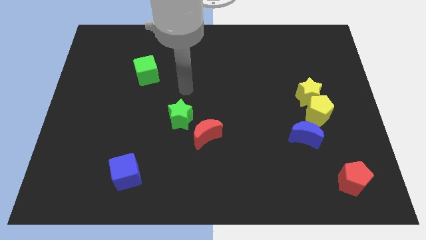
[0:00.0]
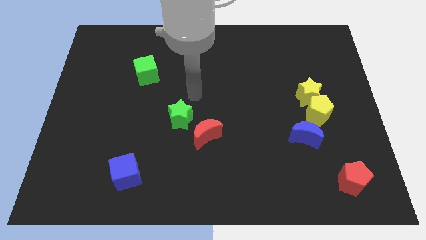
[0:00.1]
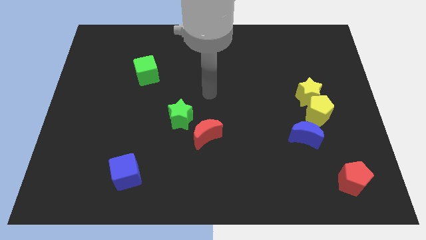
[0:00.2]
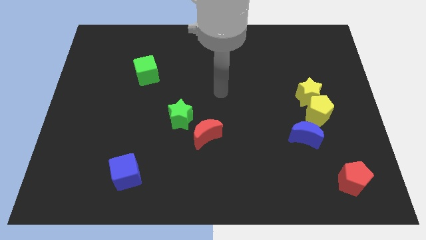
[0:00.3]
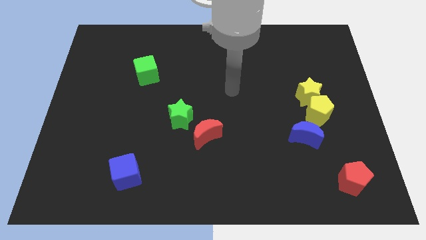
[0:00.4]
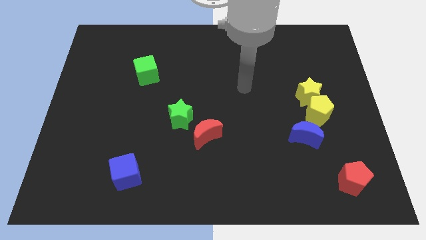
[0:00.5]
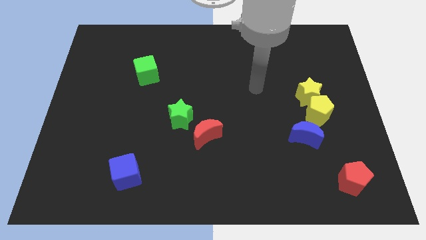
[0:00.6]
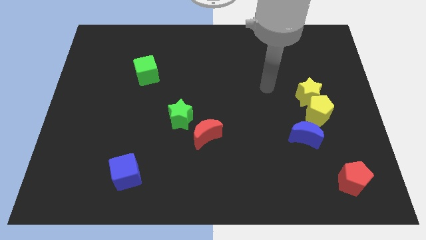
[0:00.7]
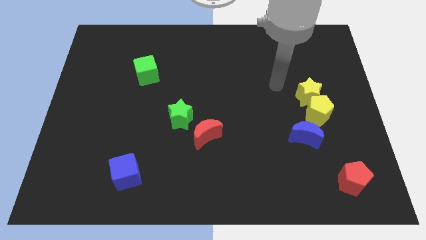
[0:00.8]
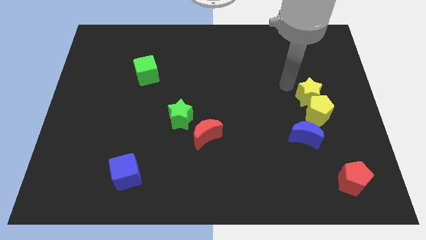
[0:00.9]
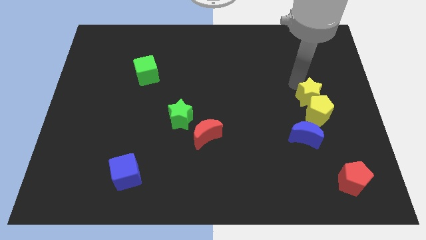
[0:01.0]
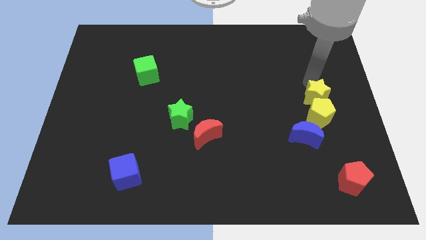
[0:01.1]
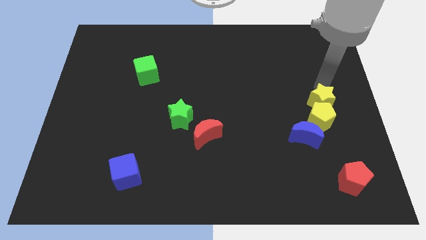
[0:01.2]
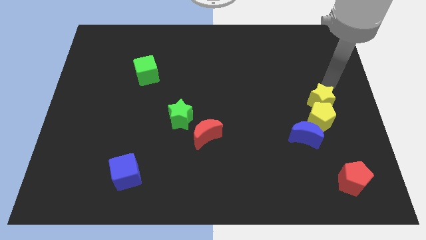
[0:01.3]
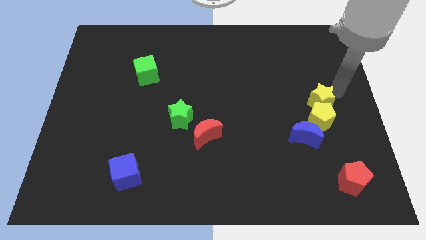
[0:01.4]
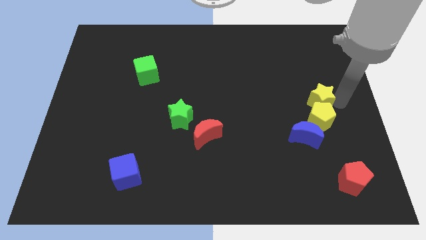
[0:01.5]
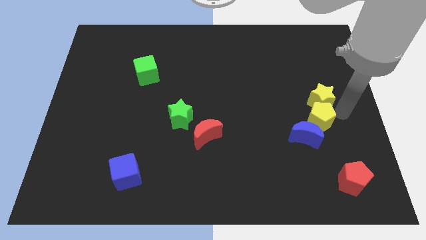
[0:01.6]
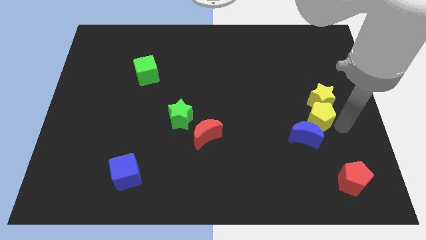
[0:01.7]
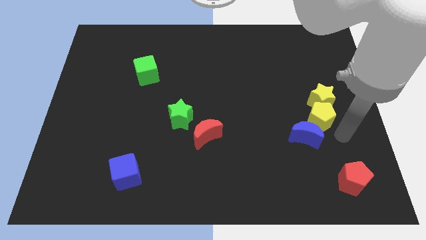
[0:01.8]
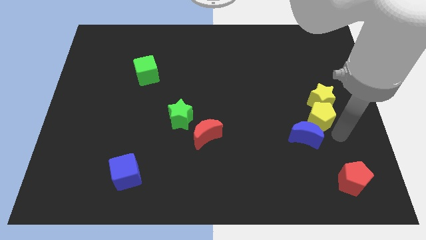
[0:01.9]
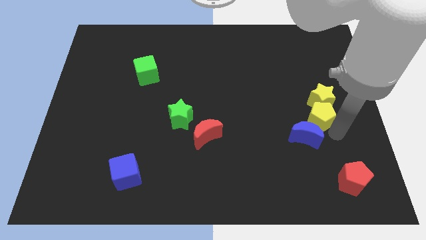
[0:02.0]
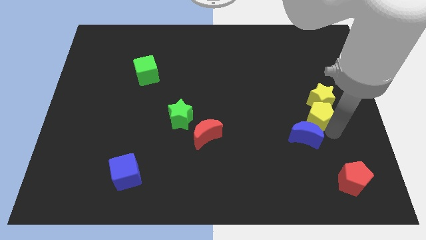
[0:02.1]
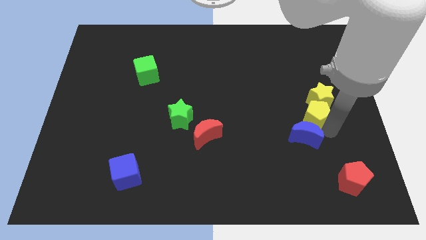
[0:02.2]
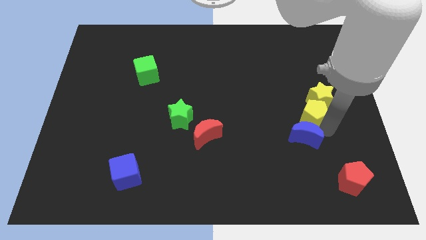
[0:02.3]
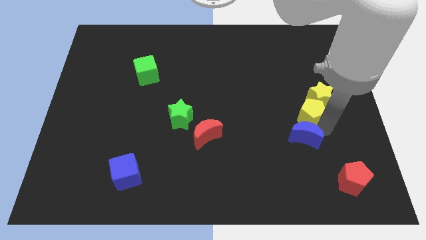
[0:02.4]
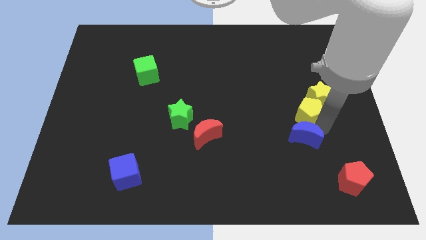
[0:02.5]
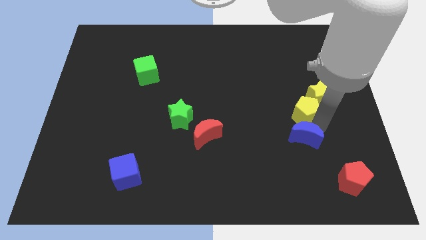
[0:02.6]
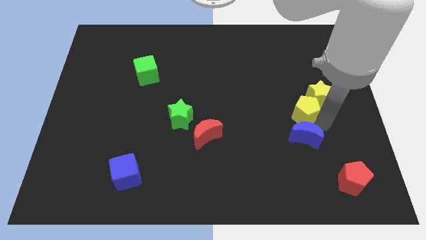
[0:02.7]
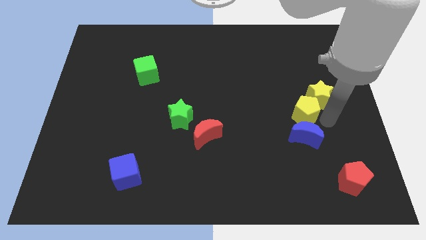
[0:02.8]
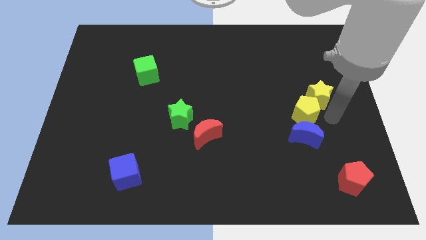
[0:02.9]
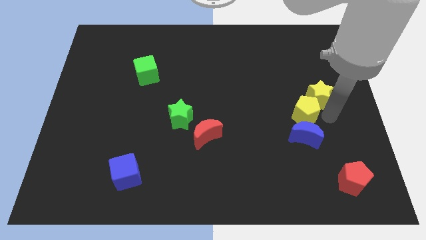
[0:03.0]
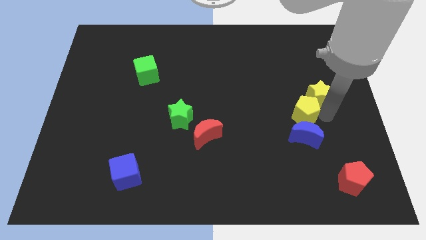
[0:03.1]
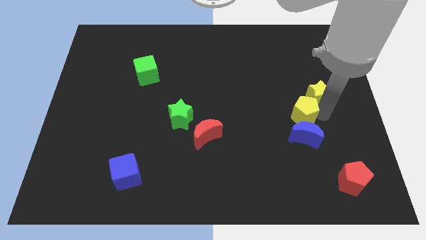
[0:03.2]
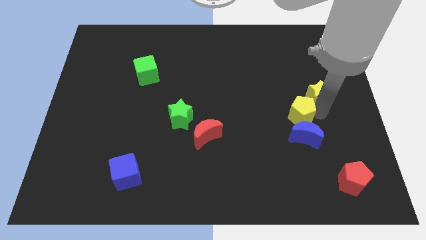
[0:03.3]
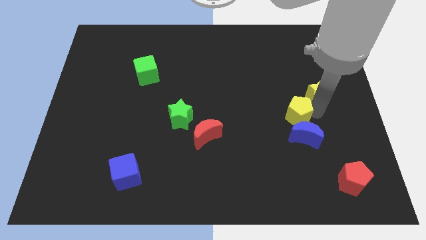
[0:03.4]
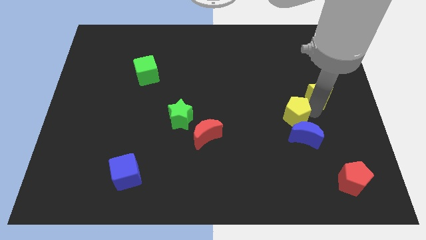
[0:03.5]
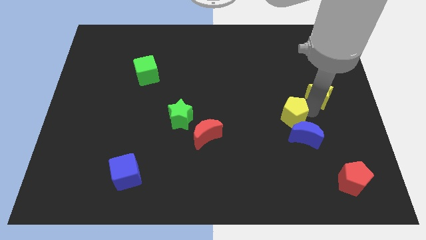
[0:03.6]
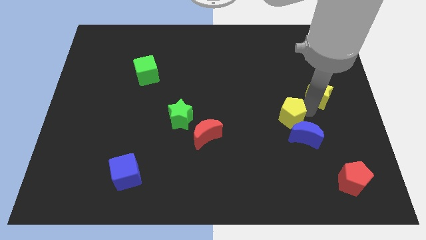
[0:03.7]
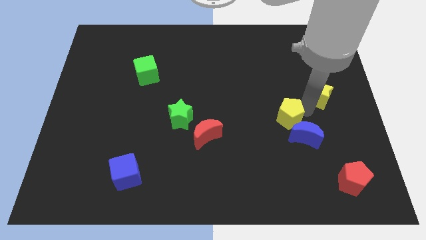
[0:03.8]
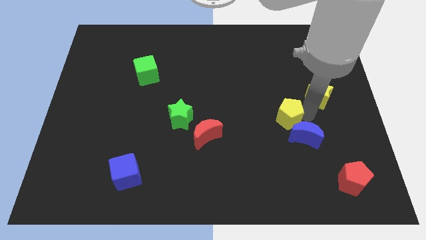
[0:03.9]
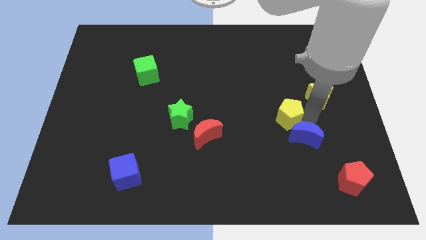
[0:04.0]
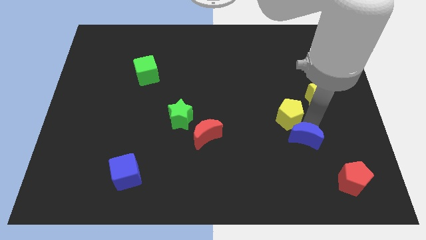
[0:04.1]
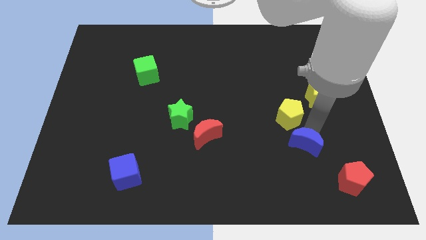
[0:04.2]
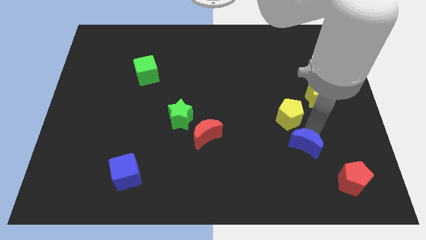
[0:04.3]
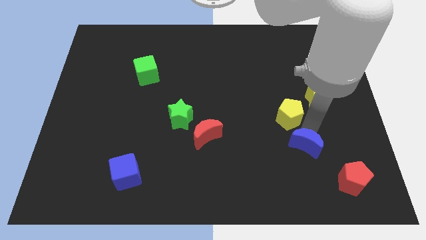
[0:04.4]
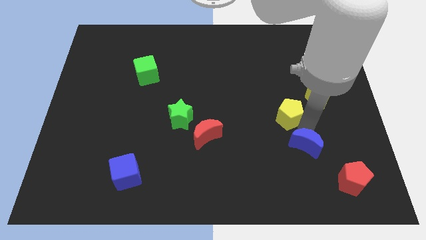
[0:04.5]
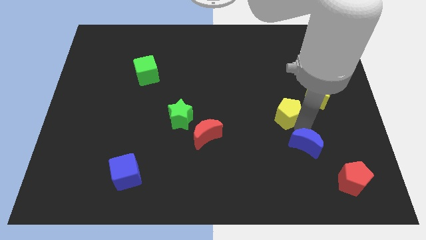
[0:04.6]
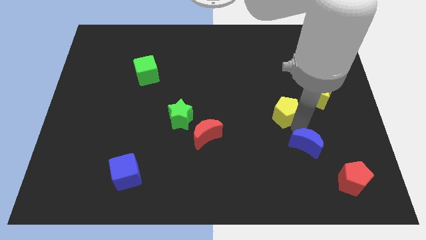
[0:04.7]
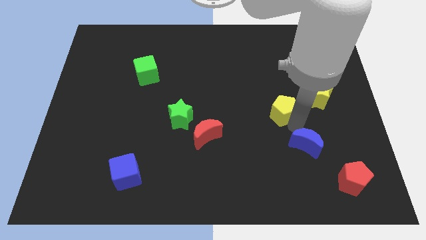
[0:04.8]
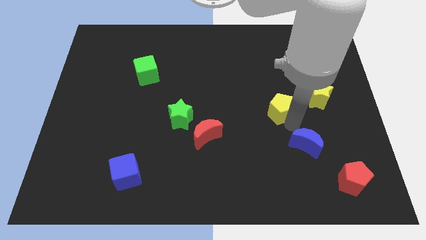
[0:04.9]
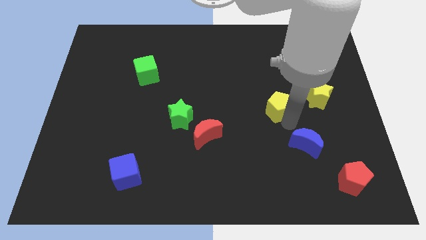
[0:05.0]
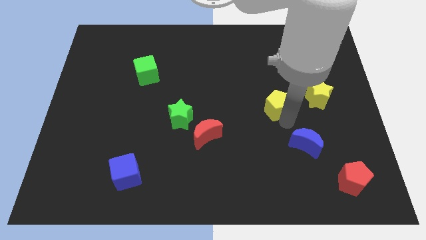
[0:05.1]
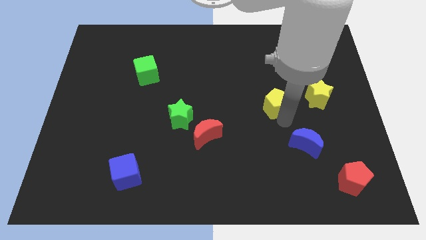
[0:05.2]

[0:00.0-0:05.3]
move the yellow pentagon diagonally up and to the left a little

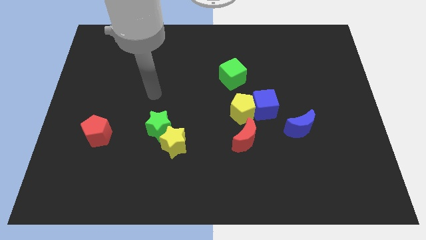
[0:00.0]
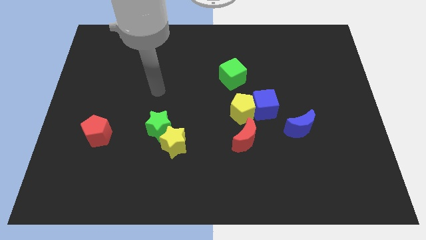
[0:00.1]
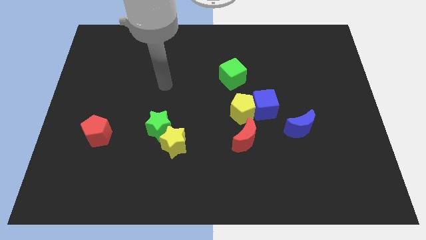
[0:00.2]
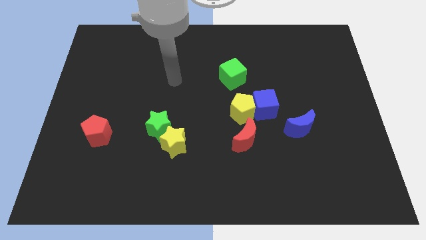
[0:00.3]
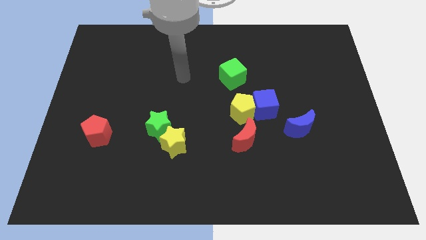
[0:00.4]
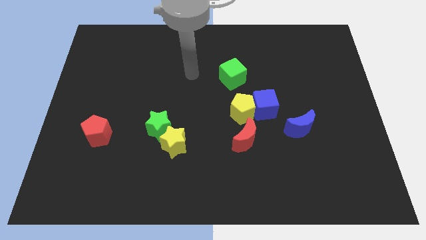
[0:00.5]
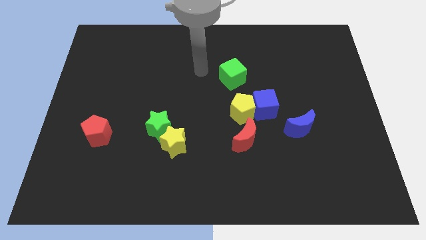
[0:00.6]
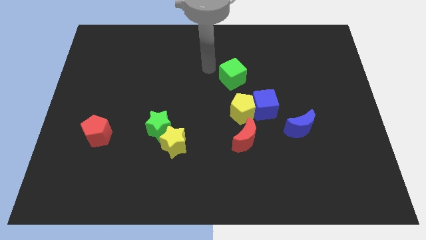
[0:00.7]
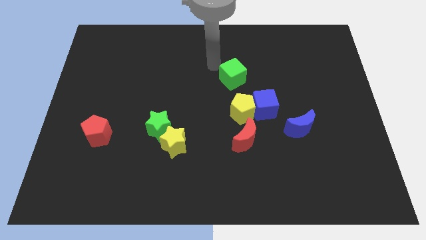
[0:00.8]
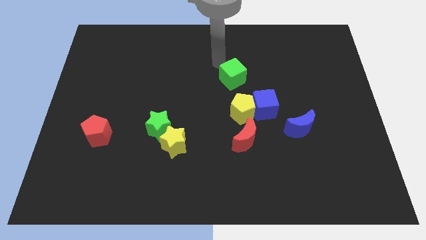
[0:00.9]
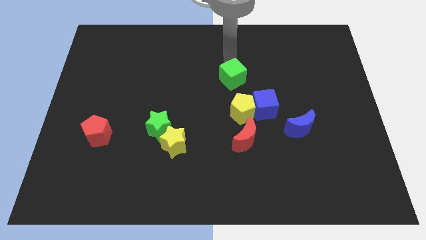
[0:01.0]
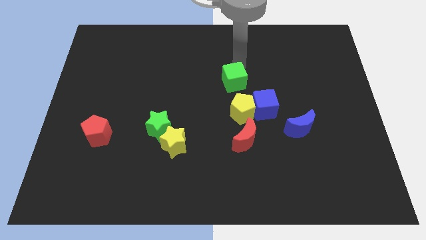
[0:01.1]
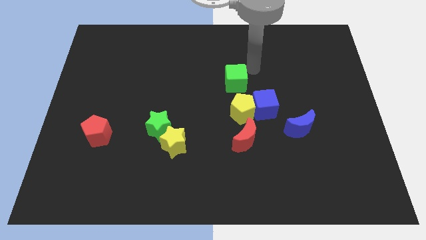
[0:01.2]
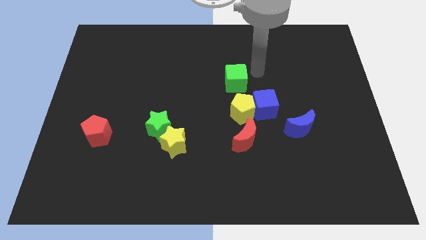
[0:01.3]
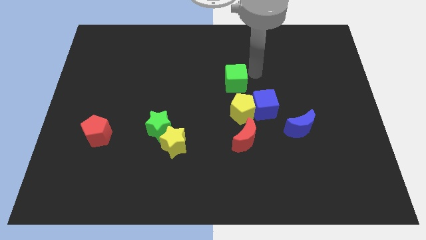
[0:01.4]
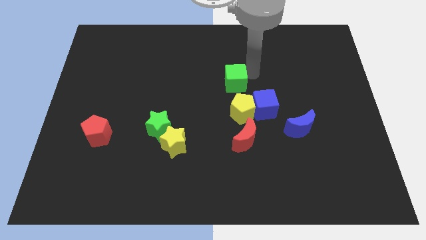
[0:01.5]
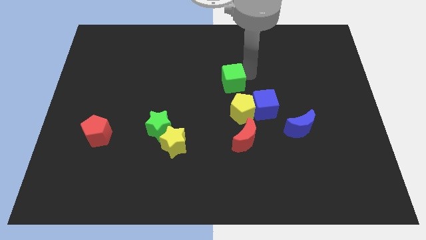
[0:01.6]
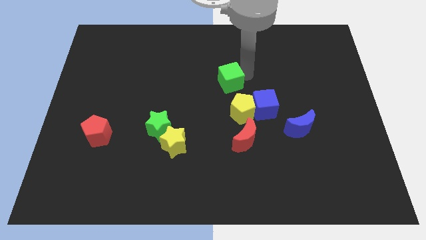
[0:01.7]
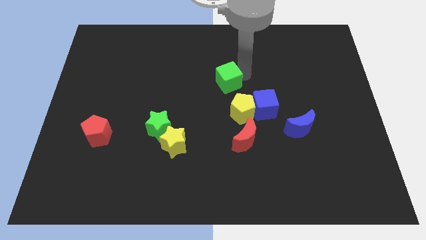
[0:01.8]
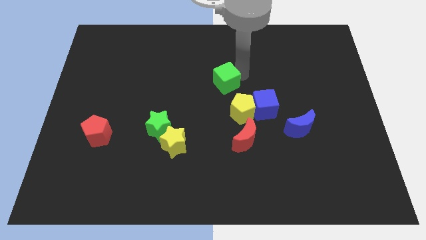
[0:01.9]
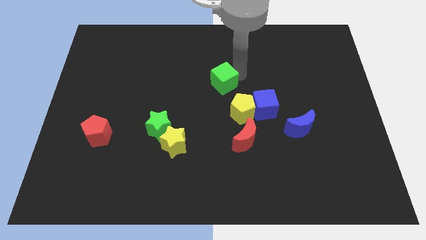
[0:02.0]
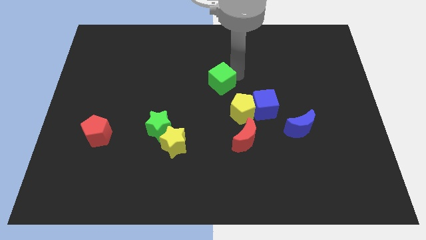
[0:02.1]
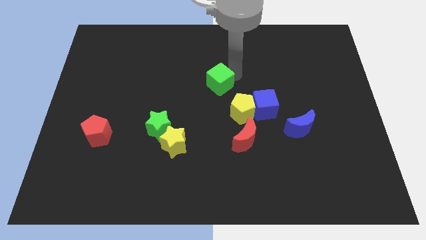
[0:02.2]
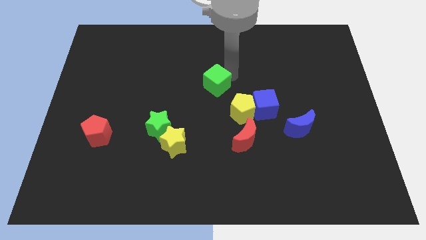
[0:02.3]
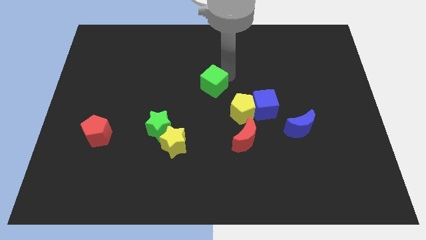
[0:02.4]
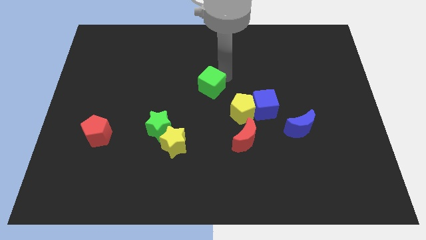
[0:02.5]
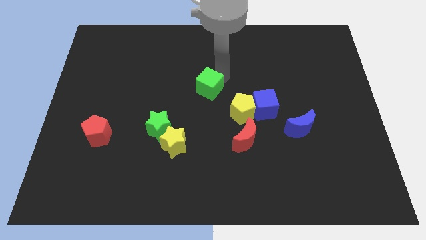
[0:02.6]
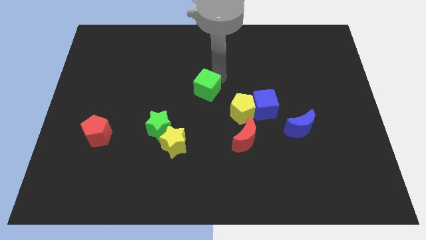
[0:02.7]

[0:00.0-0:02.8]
slightly push the green cube down and then to the left
